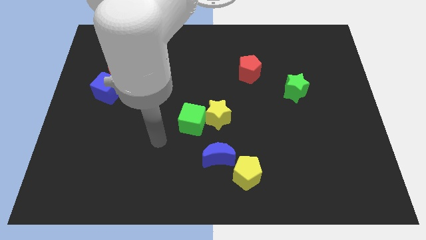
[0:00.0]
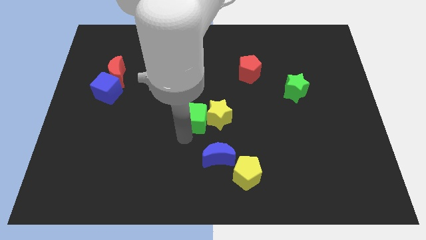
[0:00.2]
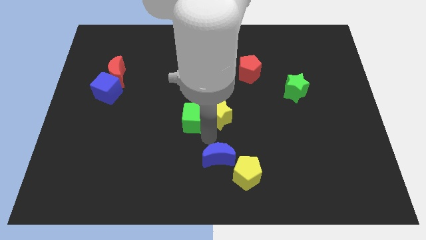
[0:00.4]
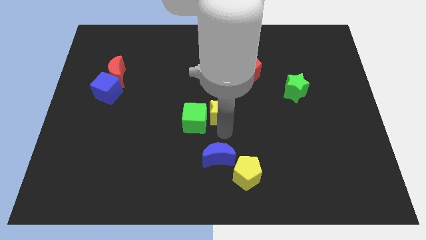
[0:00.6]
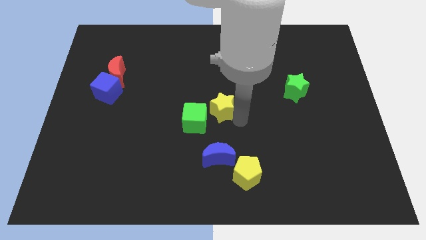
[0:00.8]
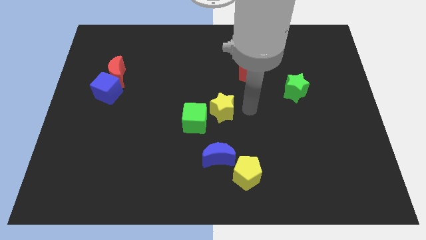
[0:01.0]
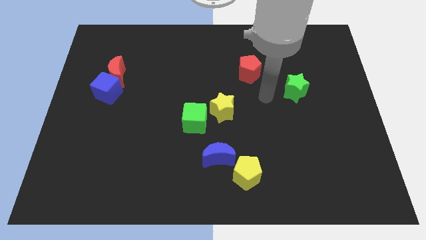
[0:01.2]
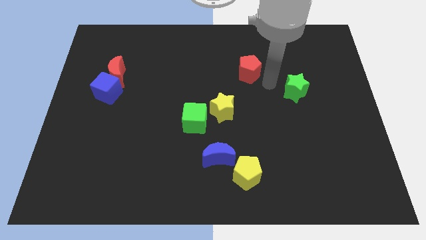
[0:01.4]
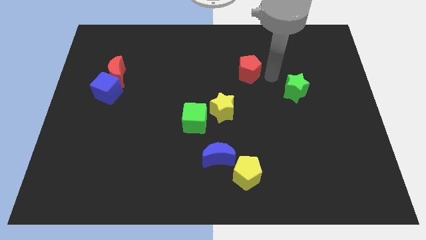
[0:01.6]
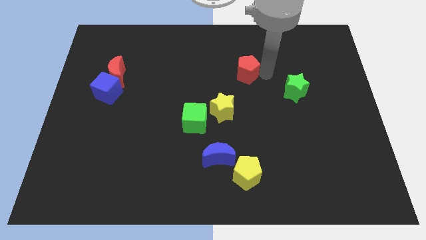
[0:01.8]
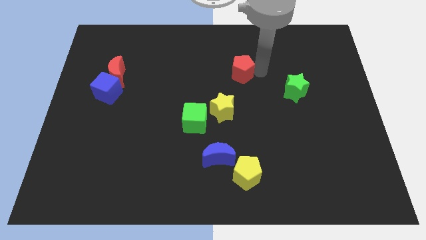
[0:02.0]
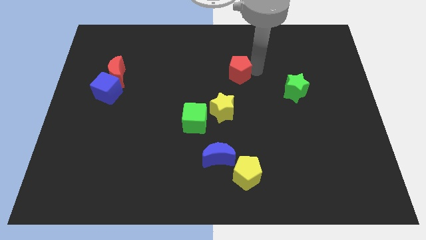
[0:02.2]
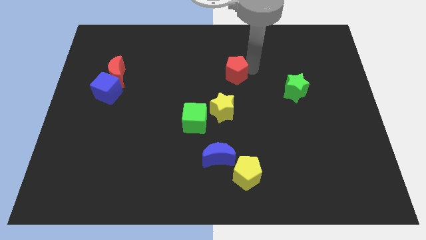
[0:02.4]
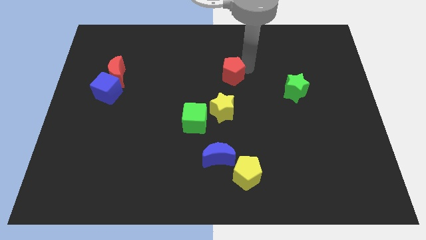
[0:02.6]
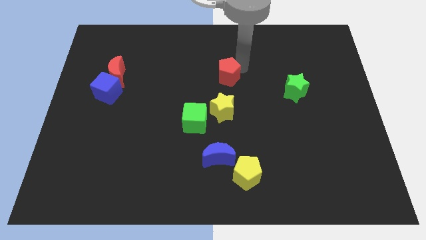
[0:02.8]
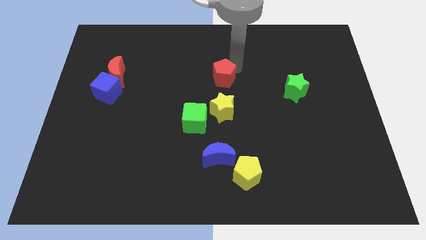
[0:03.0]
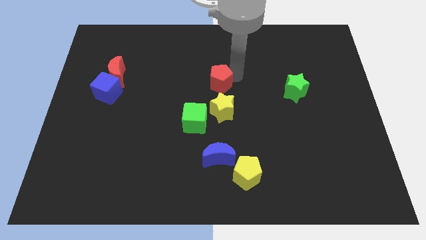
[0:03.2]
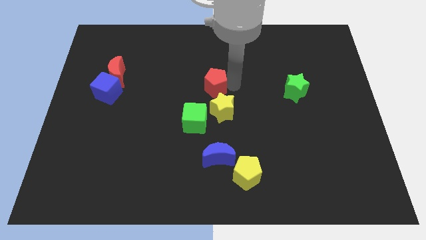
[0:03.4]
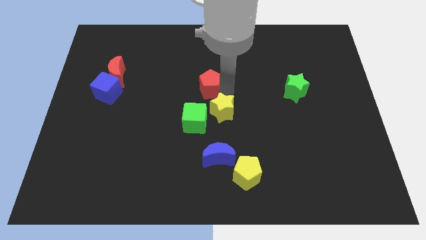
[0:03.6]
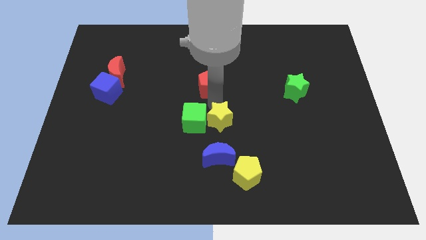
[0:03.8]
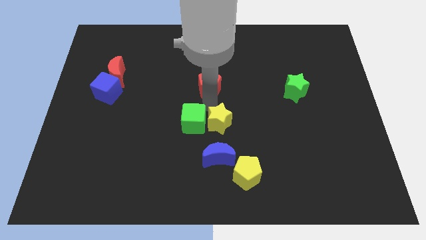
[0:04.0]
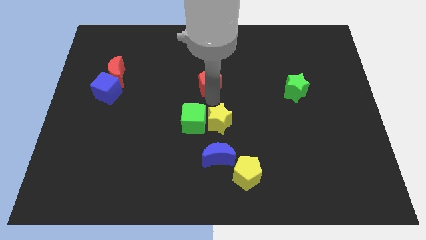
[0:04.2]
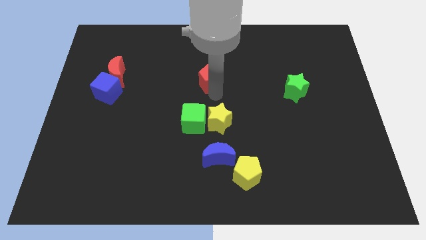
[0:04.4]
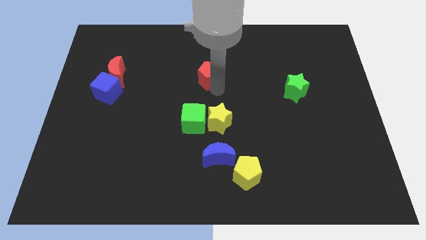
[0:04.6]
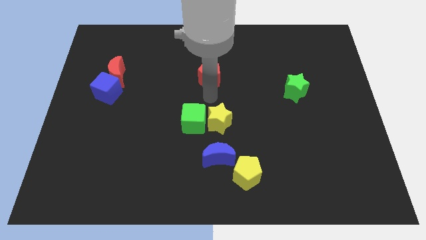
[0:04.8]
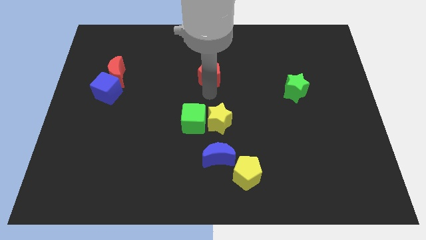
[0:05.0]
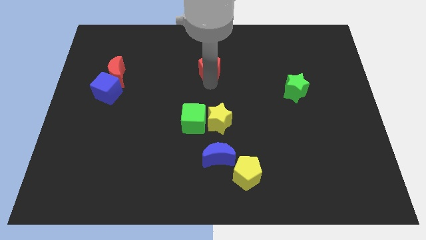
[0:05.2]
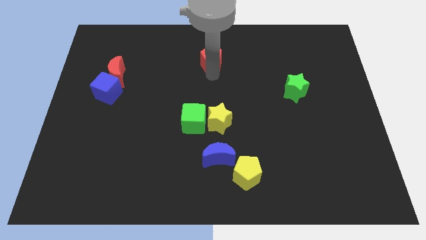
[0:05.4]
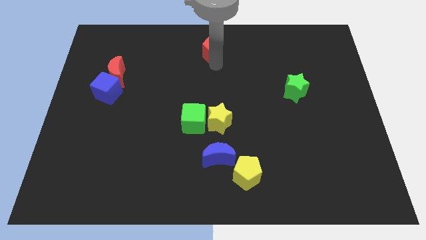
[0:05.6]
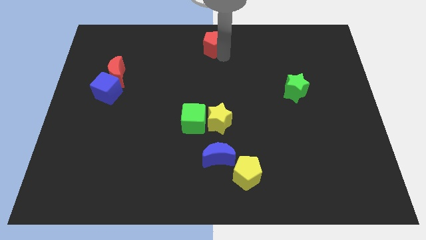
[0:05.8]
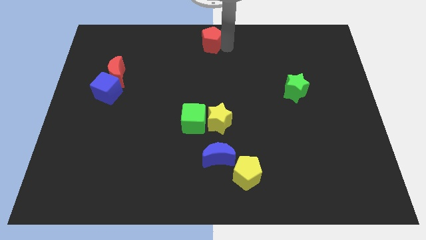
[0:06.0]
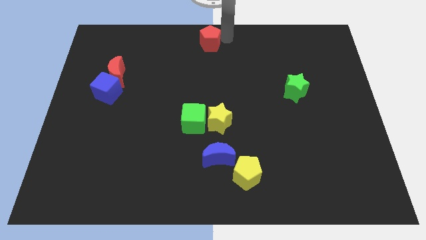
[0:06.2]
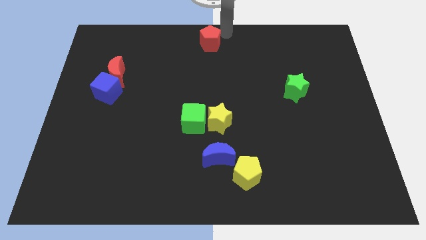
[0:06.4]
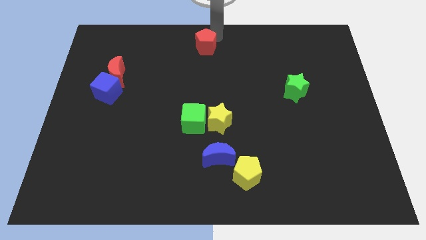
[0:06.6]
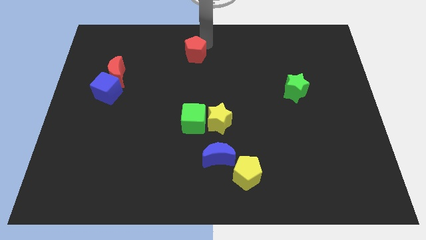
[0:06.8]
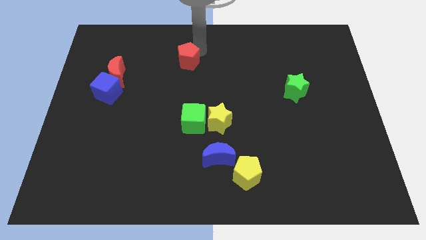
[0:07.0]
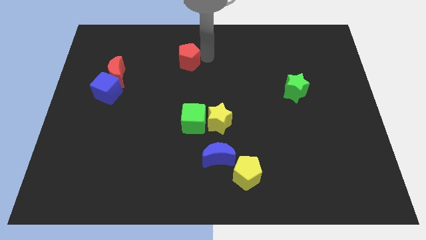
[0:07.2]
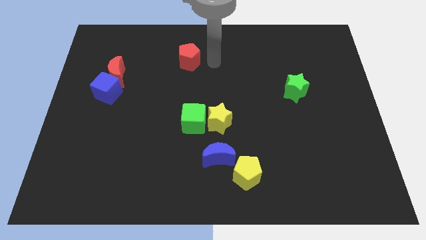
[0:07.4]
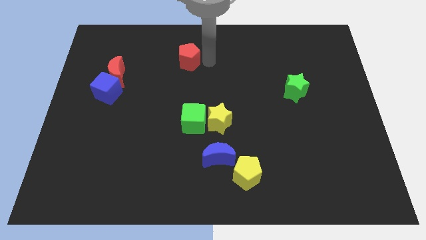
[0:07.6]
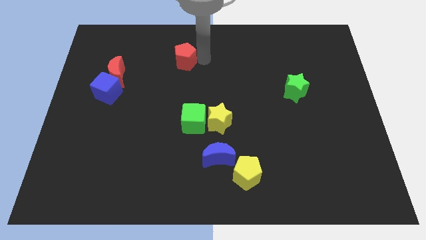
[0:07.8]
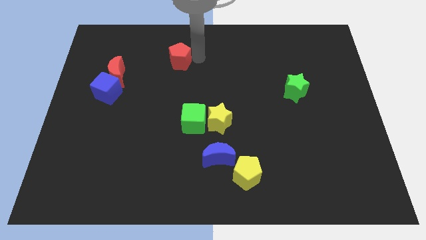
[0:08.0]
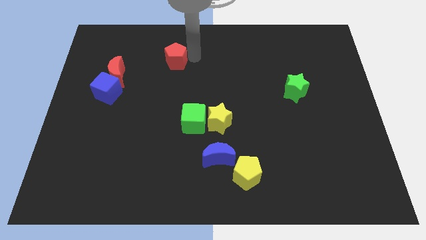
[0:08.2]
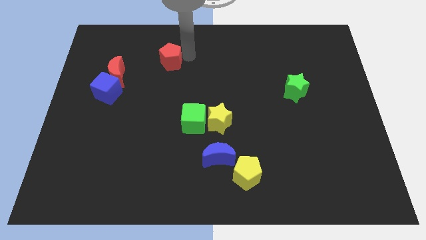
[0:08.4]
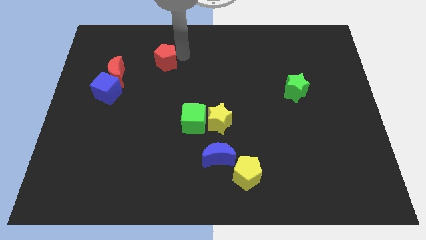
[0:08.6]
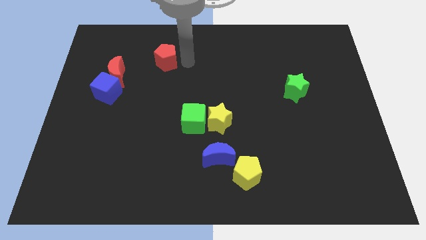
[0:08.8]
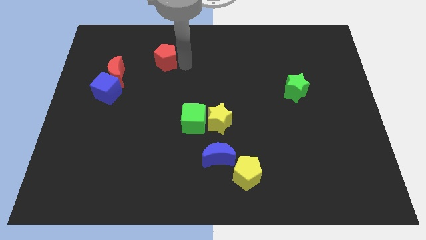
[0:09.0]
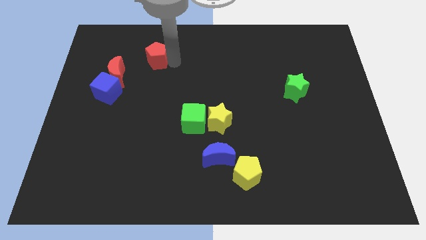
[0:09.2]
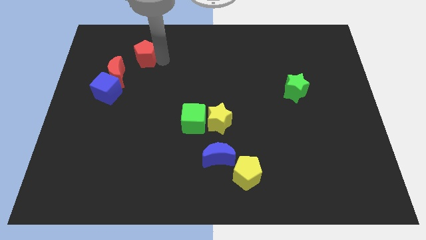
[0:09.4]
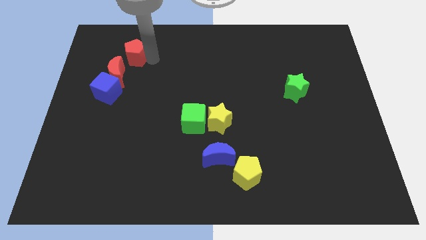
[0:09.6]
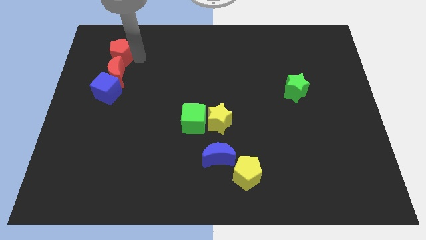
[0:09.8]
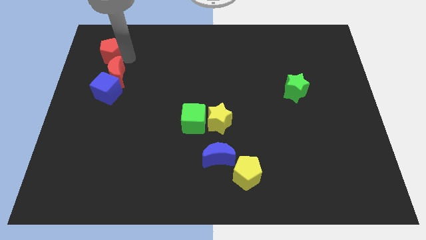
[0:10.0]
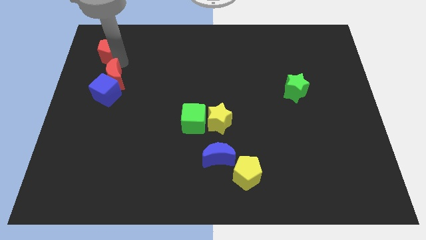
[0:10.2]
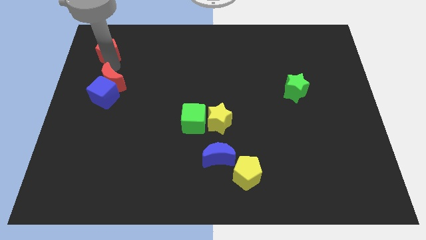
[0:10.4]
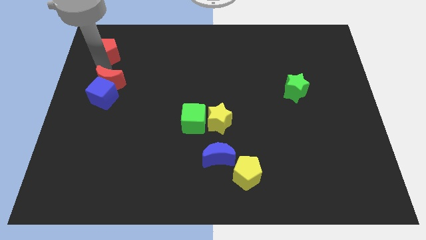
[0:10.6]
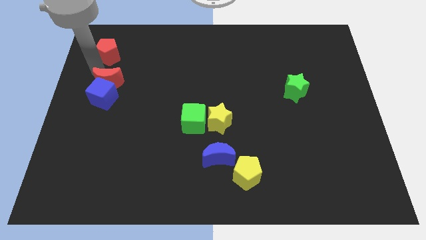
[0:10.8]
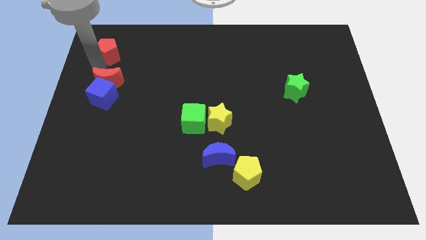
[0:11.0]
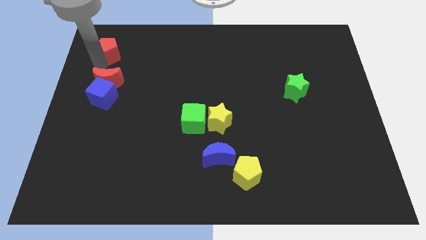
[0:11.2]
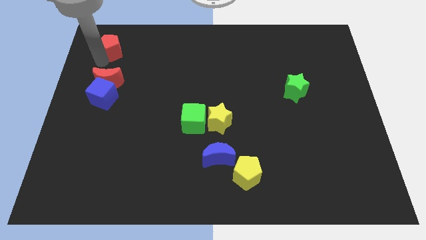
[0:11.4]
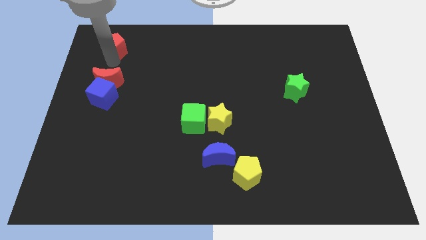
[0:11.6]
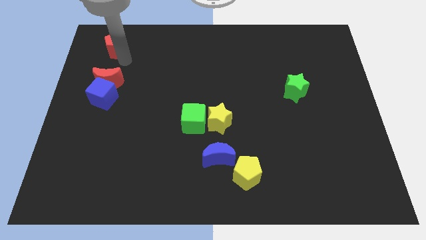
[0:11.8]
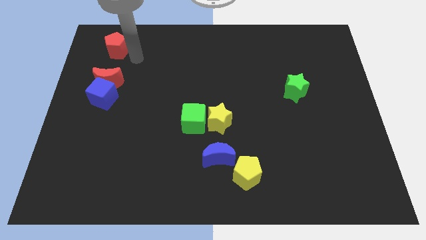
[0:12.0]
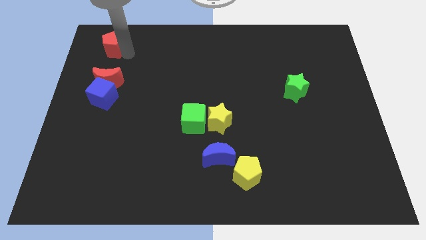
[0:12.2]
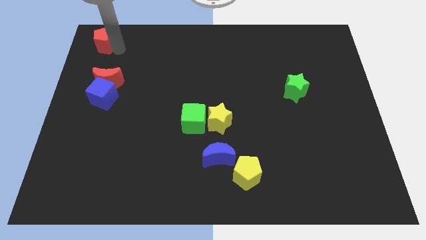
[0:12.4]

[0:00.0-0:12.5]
move the red pentagon to the top left
